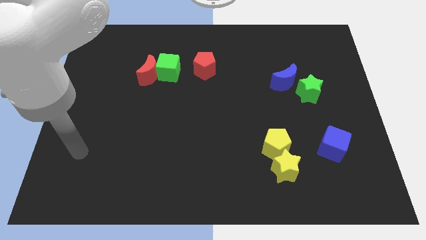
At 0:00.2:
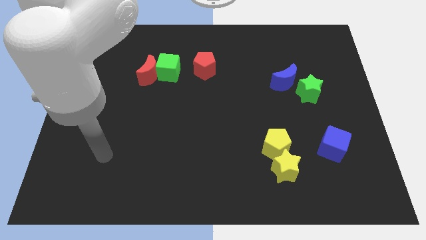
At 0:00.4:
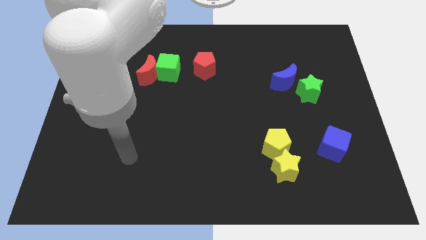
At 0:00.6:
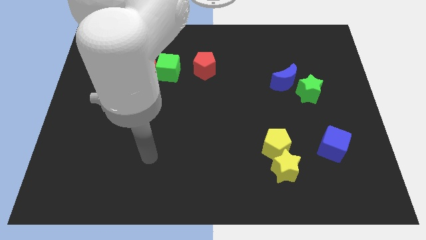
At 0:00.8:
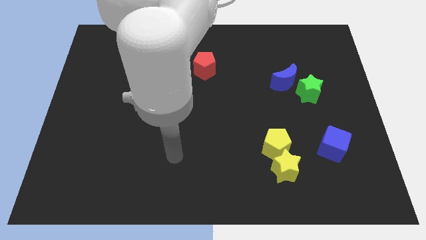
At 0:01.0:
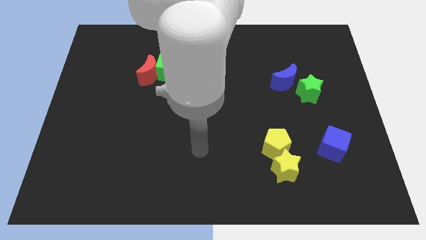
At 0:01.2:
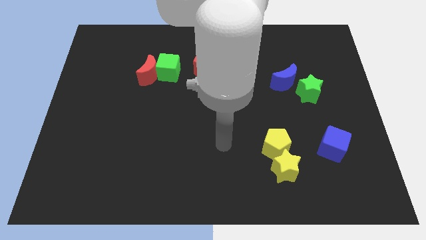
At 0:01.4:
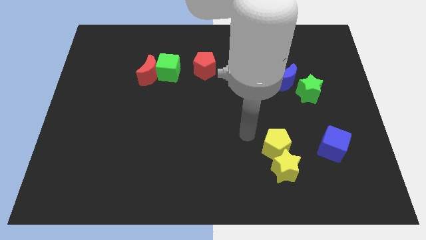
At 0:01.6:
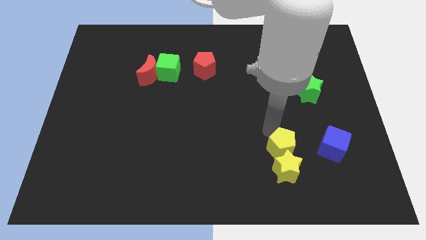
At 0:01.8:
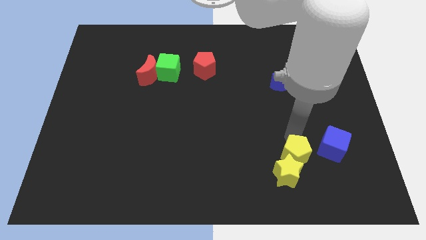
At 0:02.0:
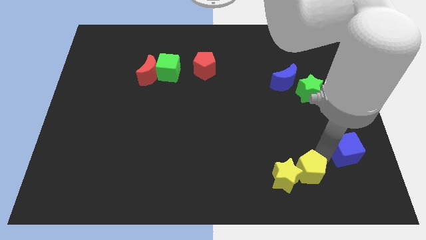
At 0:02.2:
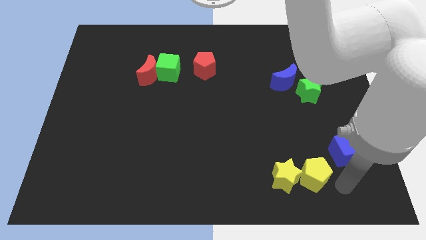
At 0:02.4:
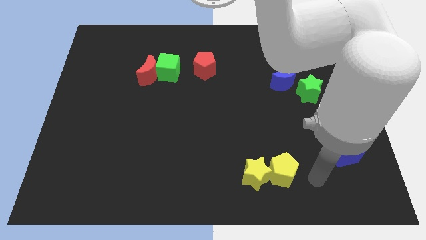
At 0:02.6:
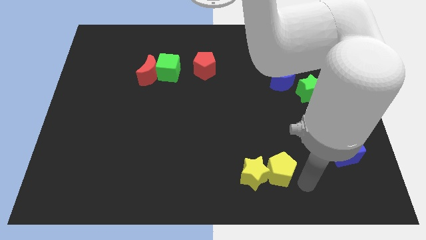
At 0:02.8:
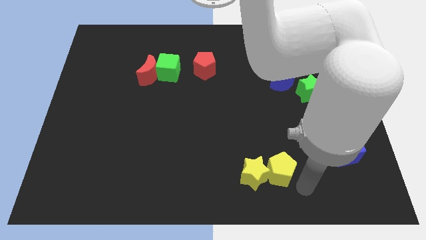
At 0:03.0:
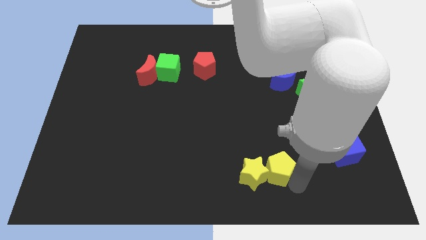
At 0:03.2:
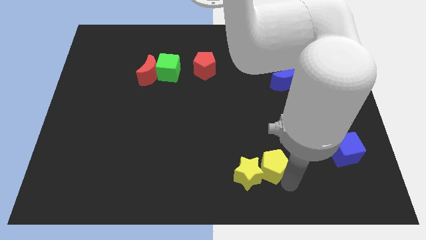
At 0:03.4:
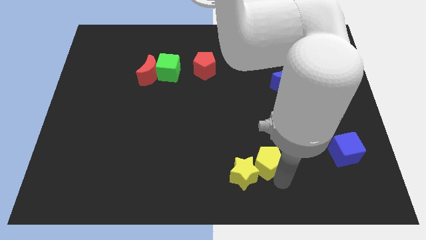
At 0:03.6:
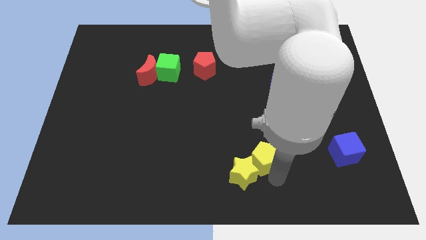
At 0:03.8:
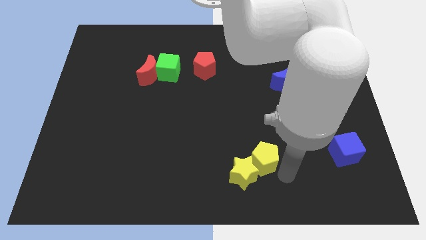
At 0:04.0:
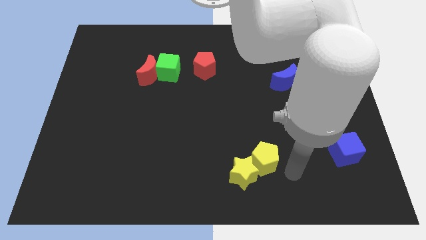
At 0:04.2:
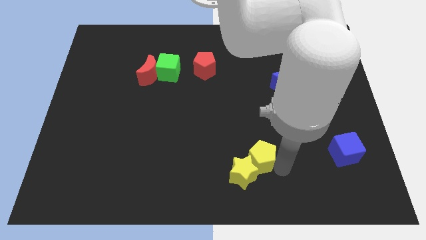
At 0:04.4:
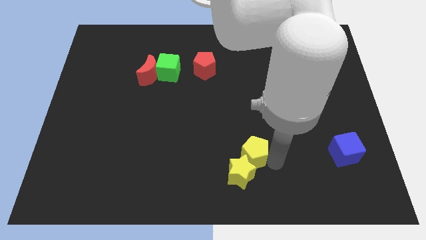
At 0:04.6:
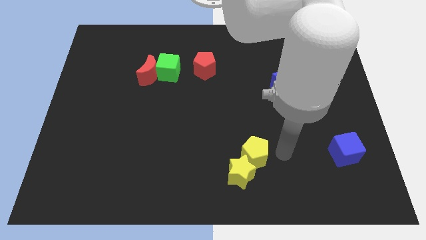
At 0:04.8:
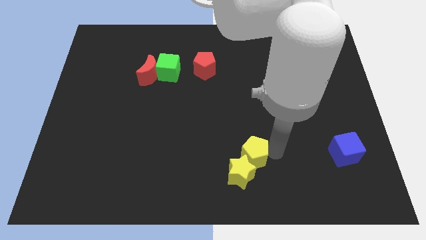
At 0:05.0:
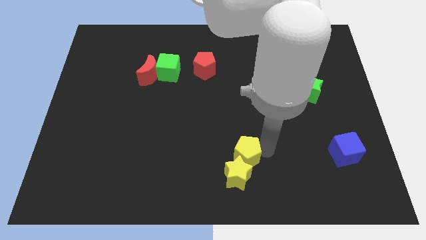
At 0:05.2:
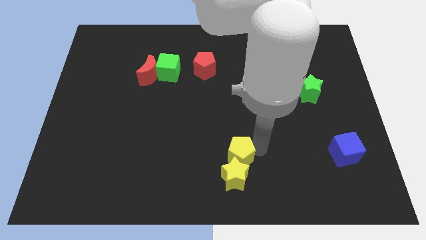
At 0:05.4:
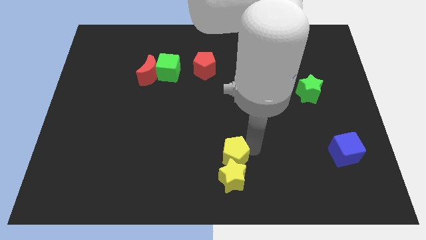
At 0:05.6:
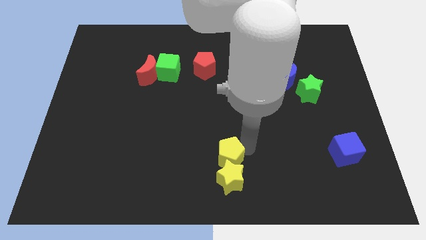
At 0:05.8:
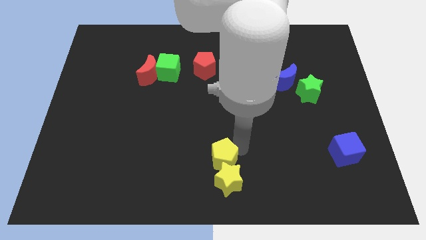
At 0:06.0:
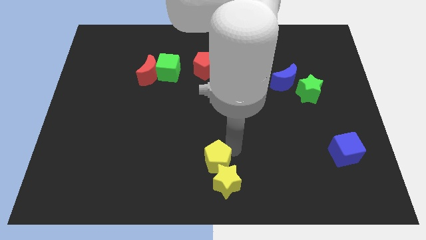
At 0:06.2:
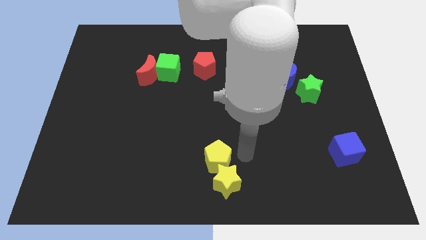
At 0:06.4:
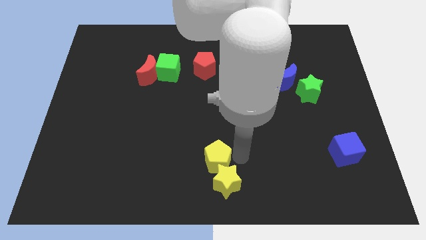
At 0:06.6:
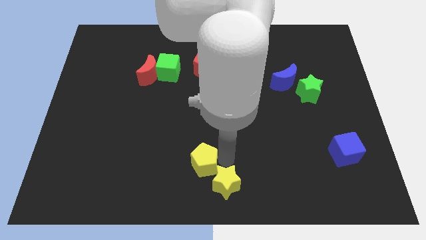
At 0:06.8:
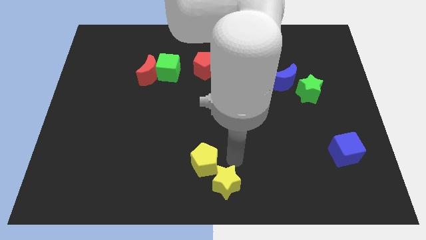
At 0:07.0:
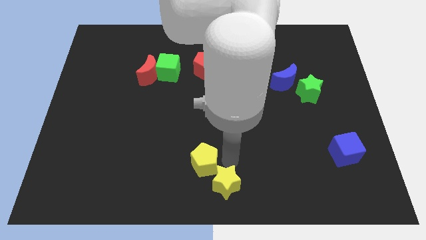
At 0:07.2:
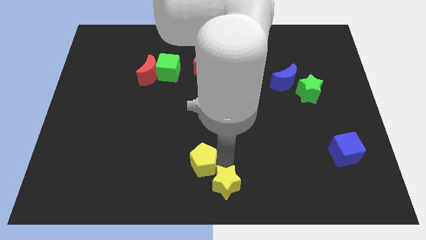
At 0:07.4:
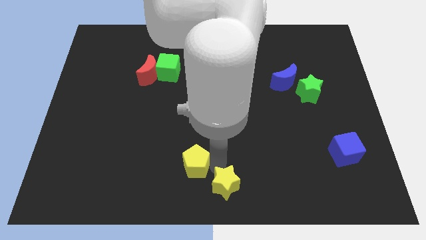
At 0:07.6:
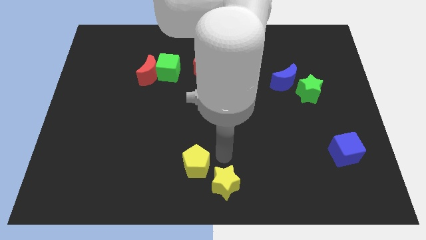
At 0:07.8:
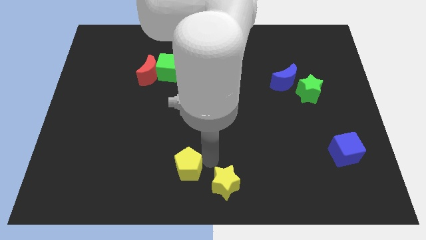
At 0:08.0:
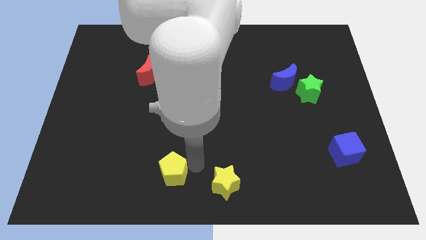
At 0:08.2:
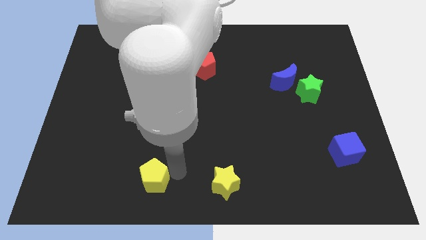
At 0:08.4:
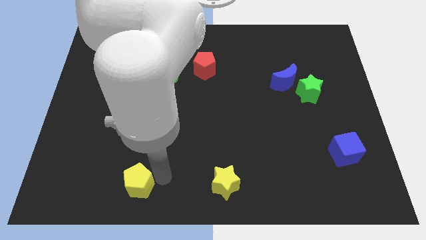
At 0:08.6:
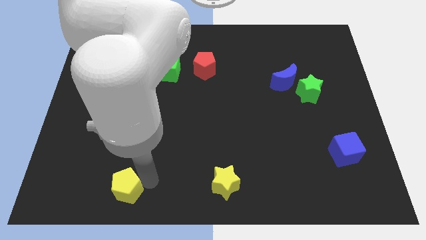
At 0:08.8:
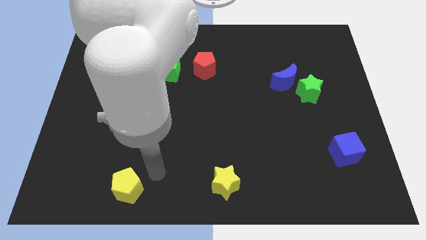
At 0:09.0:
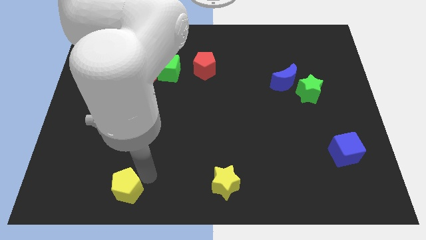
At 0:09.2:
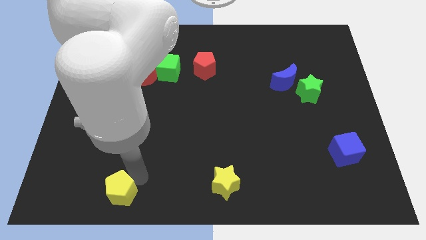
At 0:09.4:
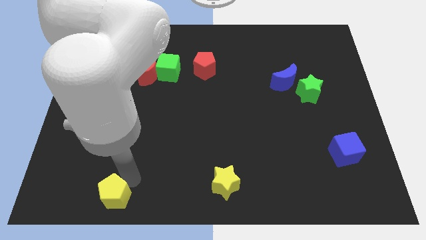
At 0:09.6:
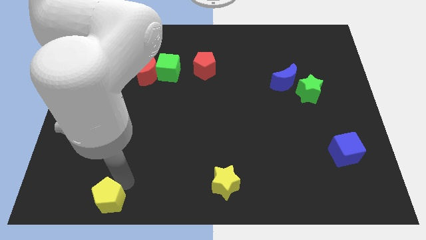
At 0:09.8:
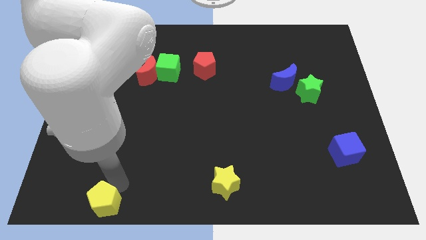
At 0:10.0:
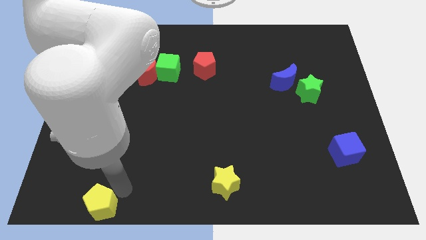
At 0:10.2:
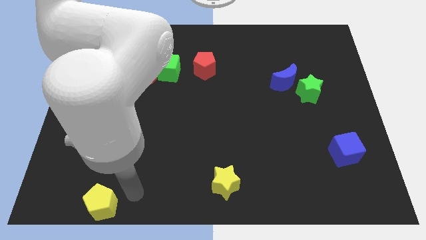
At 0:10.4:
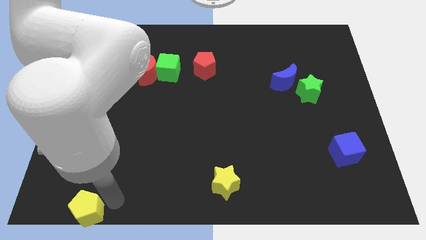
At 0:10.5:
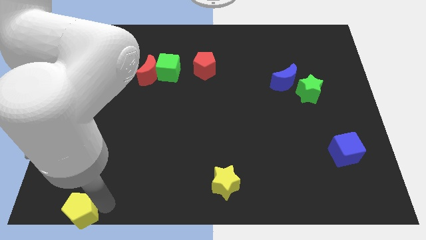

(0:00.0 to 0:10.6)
put the yellow pentagon to the bottom left

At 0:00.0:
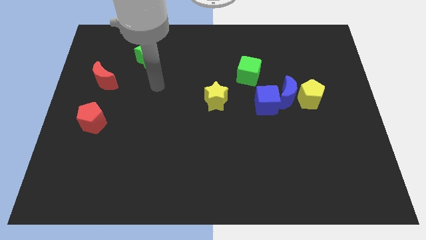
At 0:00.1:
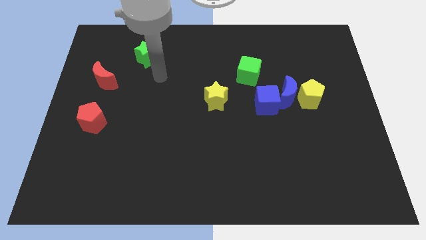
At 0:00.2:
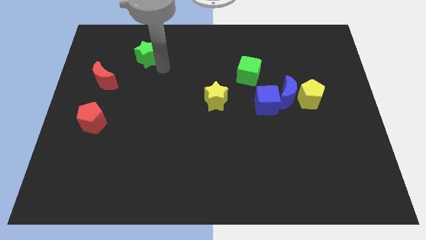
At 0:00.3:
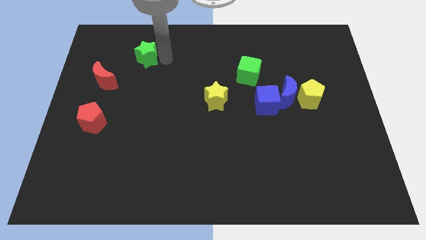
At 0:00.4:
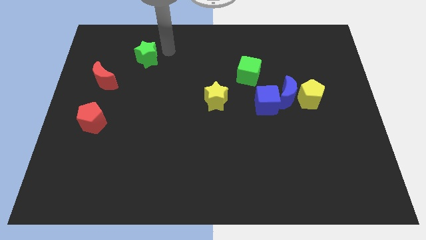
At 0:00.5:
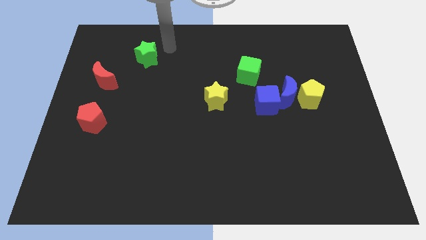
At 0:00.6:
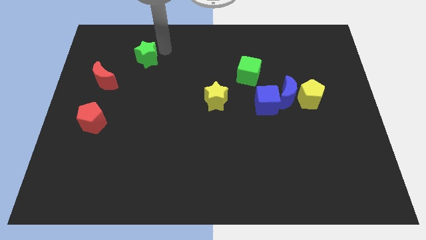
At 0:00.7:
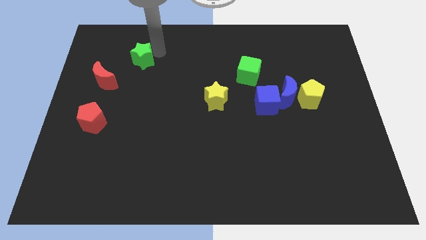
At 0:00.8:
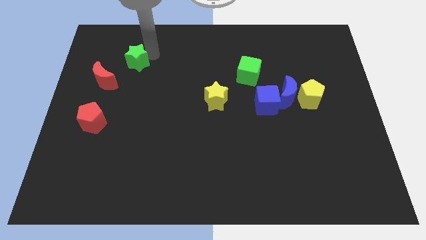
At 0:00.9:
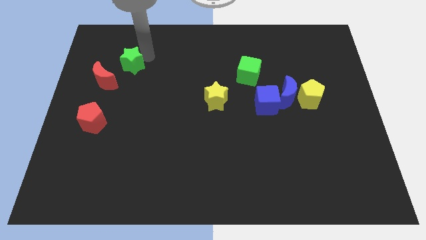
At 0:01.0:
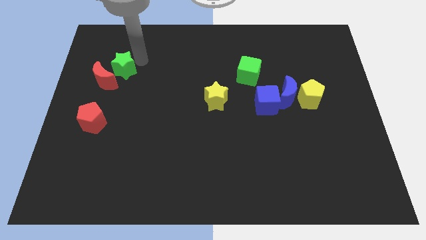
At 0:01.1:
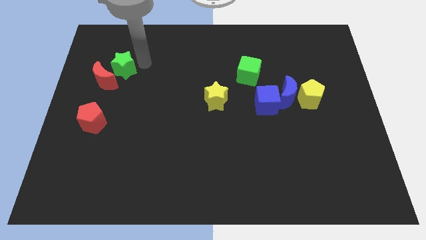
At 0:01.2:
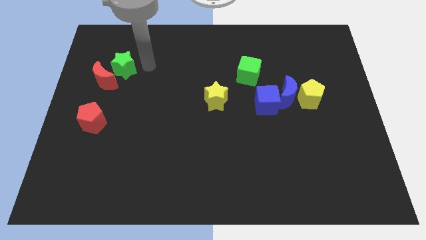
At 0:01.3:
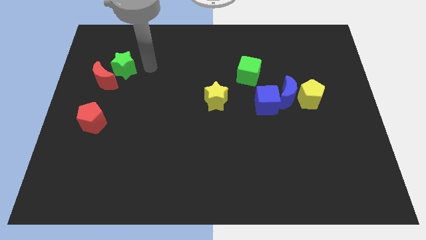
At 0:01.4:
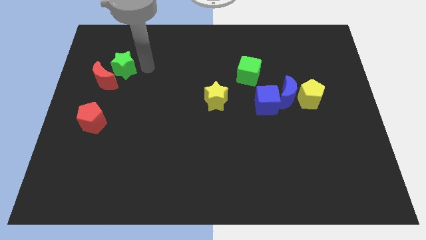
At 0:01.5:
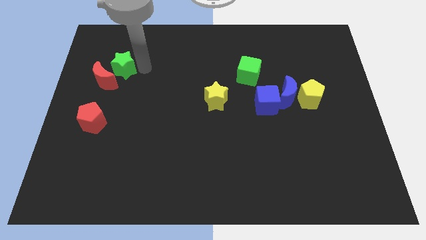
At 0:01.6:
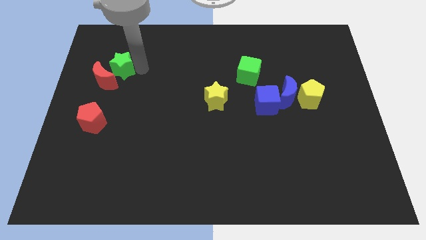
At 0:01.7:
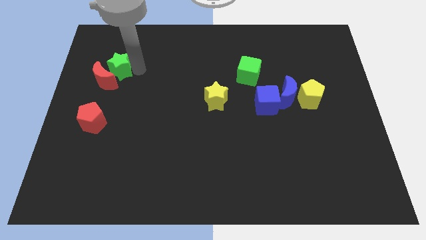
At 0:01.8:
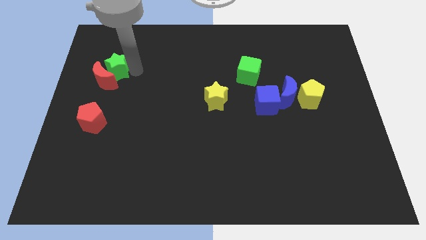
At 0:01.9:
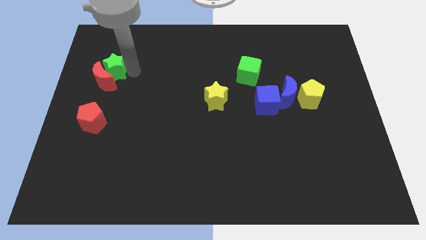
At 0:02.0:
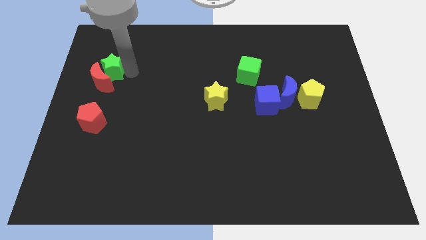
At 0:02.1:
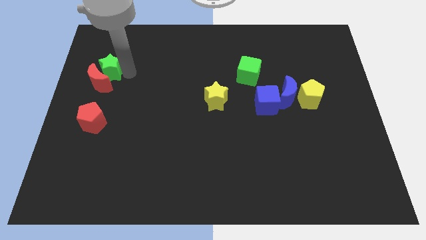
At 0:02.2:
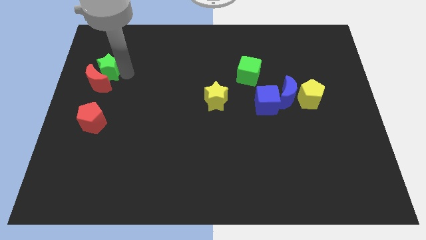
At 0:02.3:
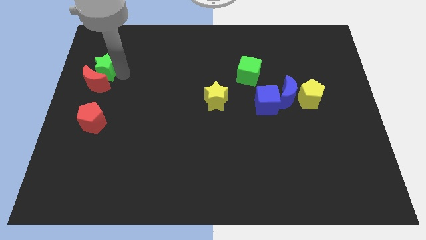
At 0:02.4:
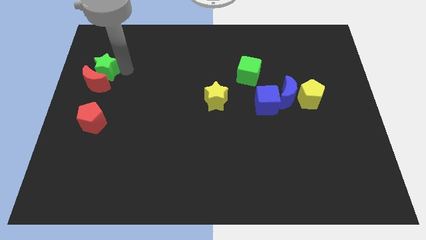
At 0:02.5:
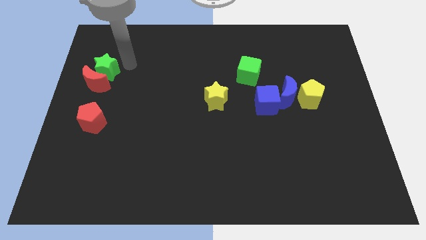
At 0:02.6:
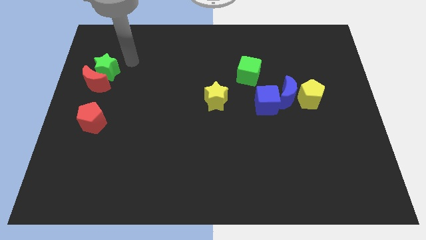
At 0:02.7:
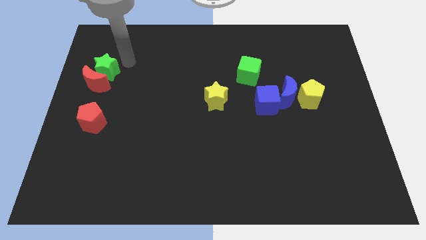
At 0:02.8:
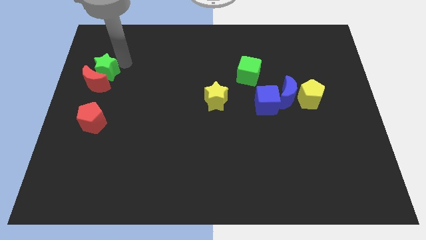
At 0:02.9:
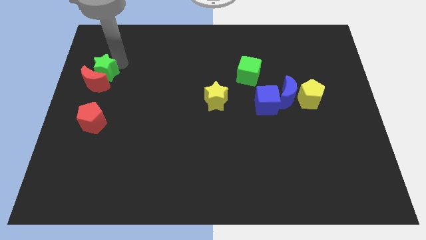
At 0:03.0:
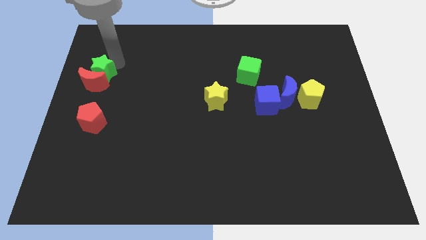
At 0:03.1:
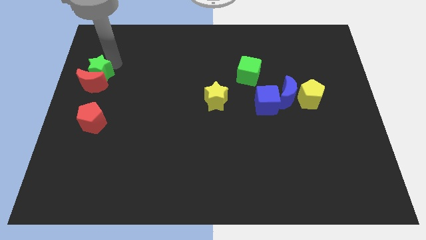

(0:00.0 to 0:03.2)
push the green star to the left side of the board
